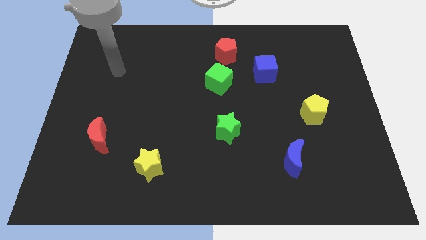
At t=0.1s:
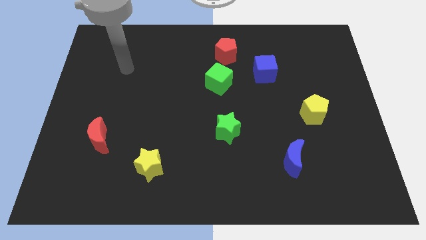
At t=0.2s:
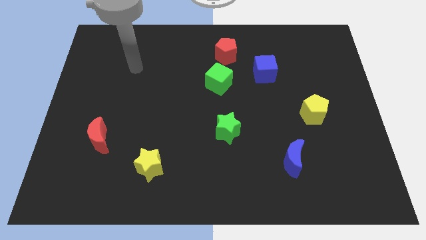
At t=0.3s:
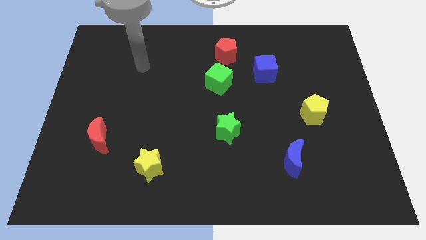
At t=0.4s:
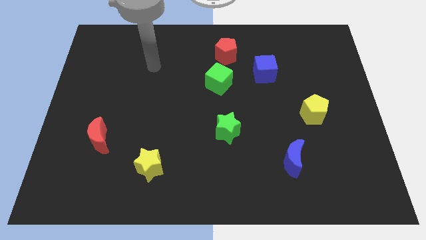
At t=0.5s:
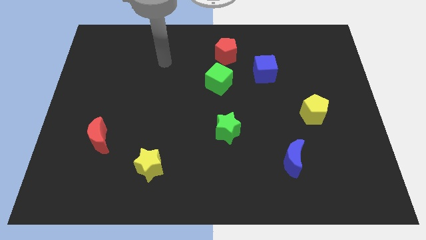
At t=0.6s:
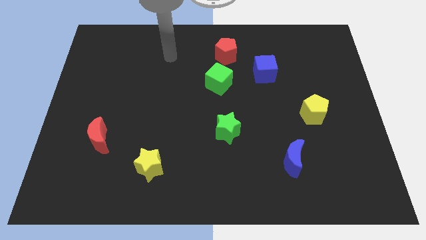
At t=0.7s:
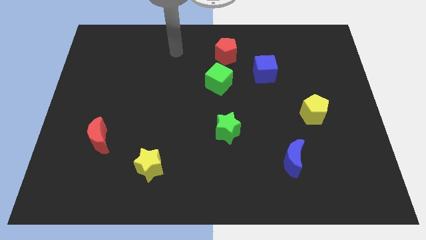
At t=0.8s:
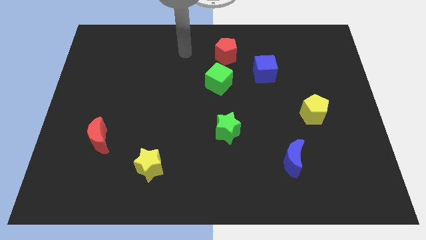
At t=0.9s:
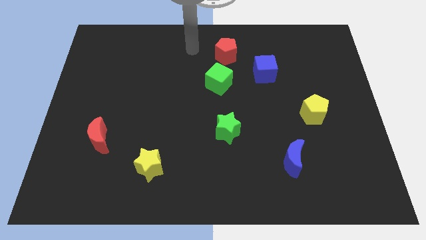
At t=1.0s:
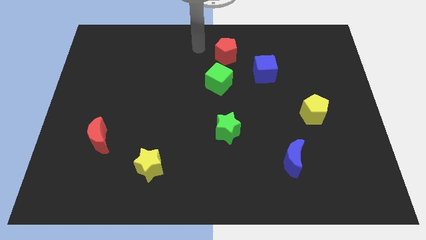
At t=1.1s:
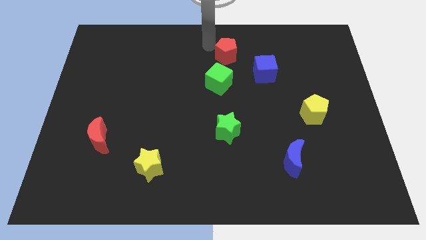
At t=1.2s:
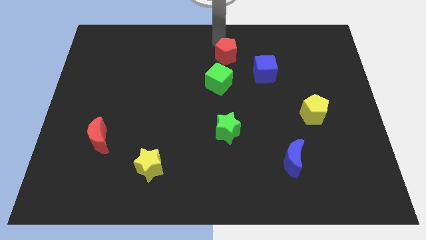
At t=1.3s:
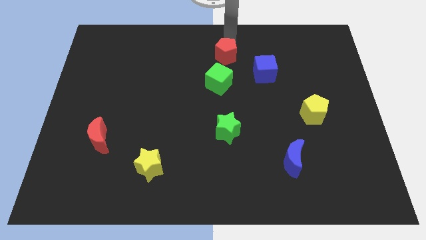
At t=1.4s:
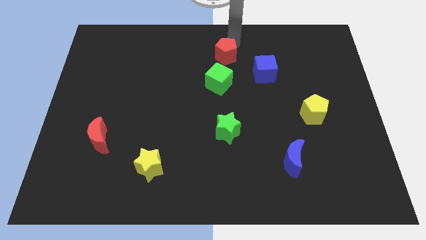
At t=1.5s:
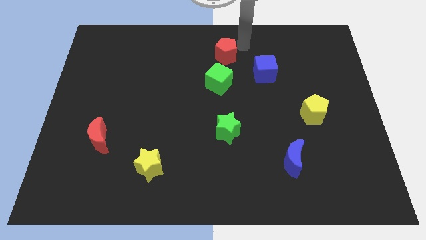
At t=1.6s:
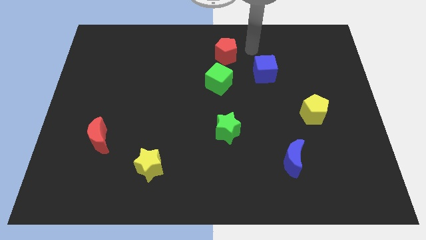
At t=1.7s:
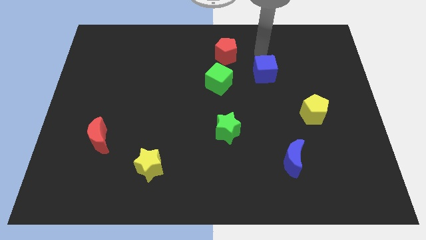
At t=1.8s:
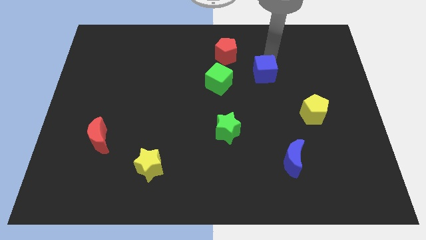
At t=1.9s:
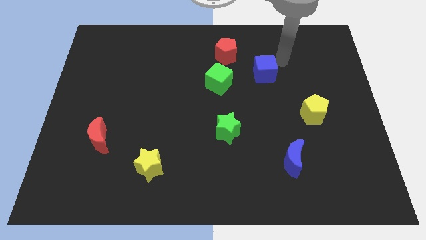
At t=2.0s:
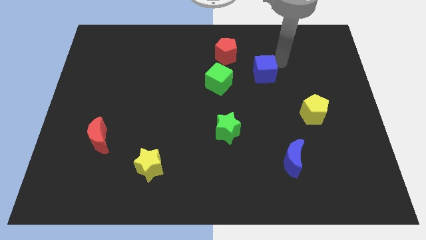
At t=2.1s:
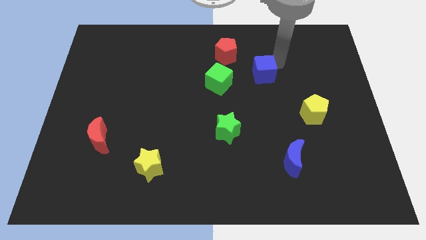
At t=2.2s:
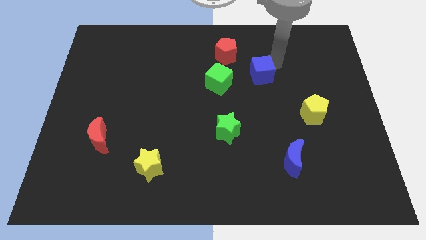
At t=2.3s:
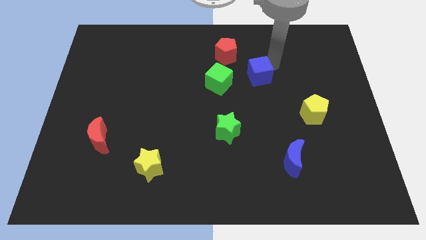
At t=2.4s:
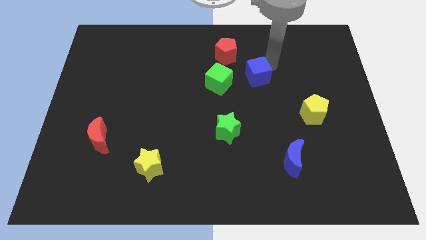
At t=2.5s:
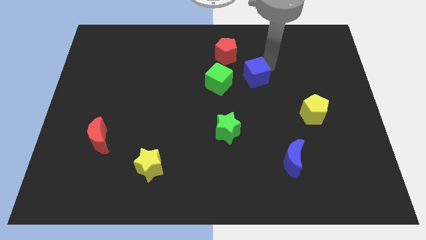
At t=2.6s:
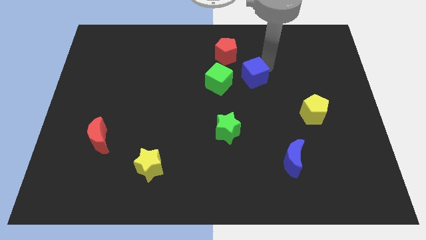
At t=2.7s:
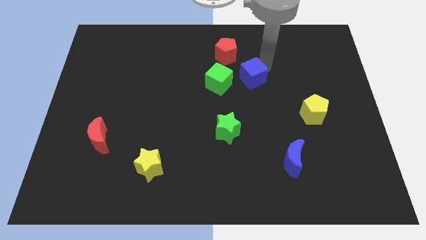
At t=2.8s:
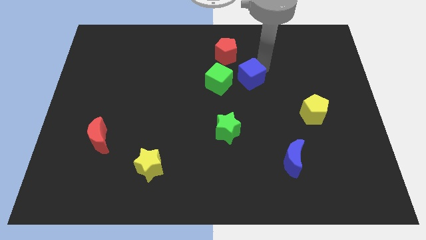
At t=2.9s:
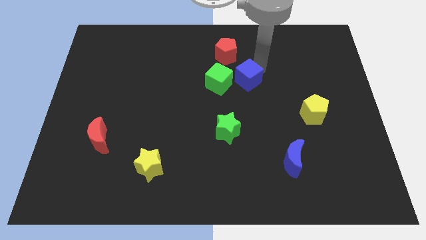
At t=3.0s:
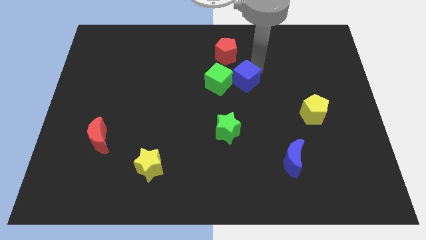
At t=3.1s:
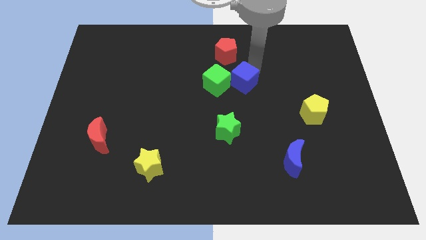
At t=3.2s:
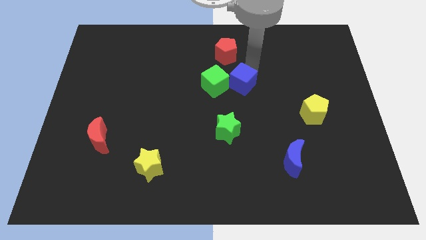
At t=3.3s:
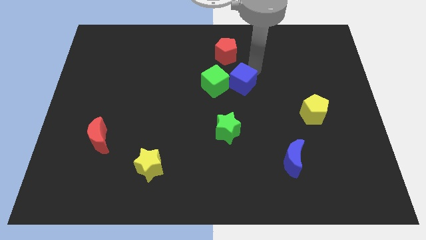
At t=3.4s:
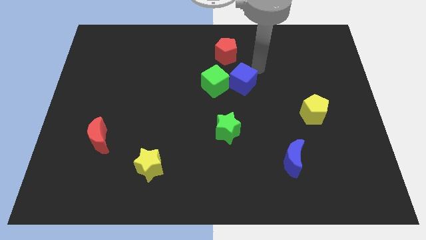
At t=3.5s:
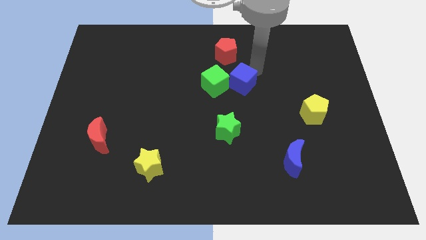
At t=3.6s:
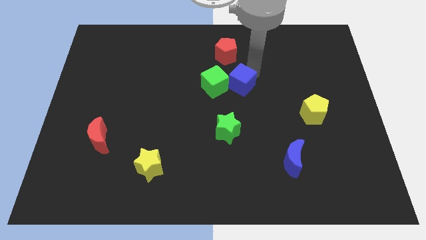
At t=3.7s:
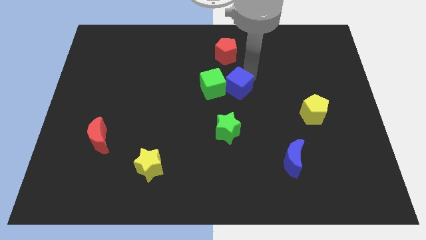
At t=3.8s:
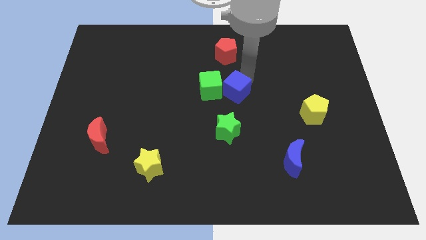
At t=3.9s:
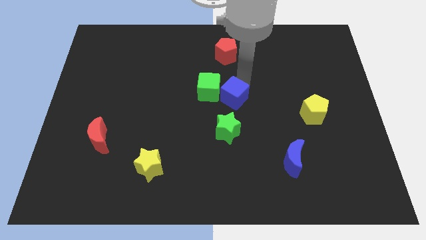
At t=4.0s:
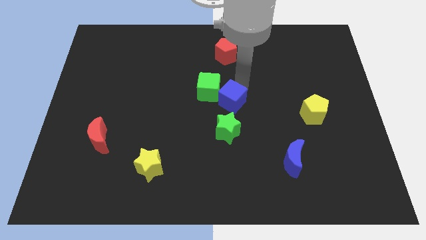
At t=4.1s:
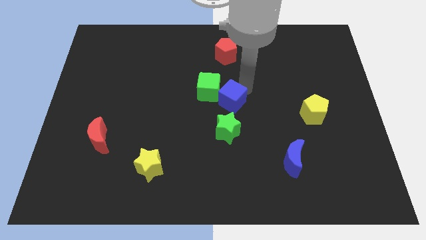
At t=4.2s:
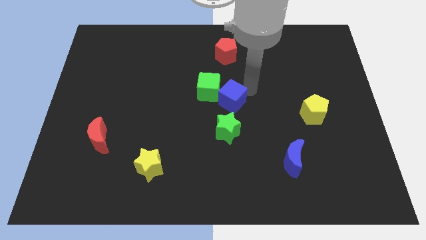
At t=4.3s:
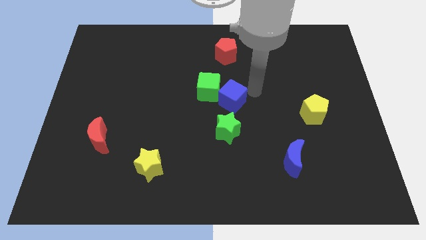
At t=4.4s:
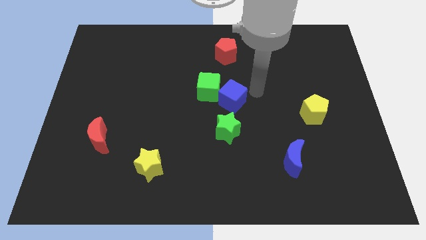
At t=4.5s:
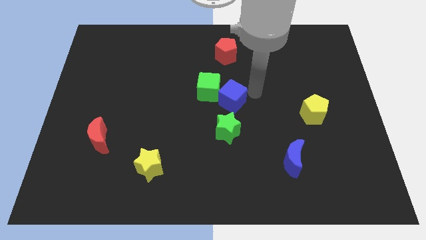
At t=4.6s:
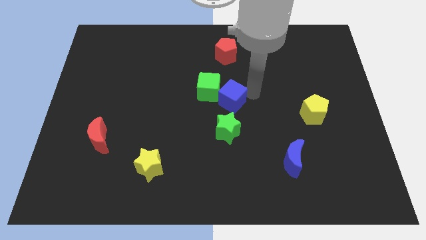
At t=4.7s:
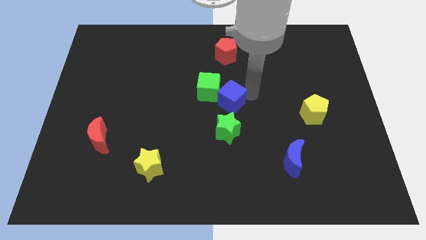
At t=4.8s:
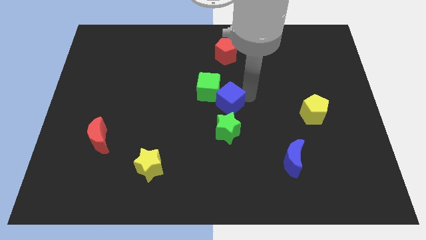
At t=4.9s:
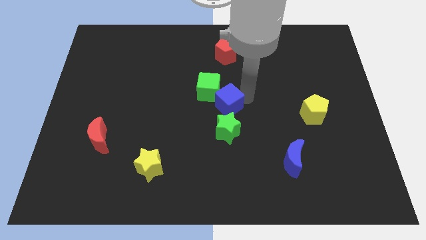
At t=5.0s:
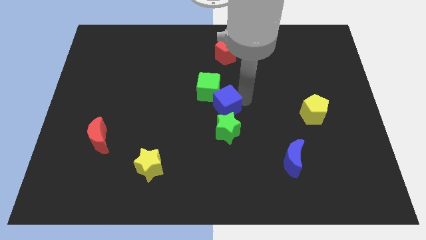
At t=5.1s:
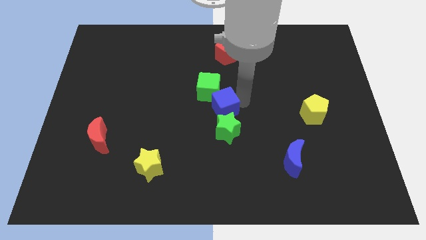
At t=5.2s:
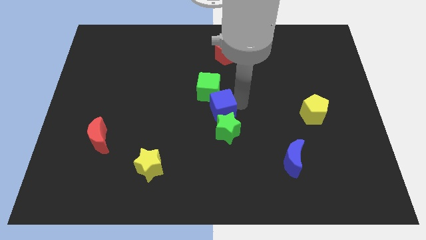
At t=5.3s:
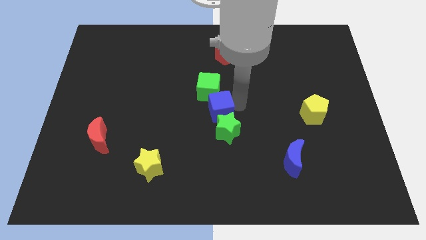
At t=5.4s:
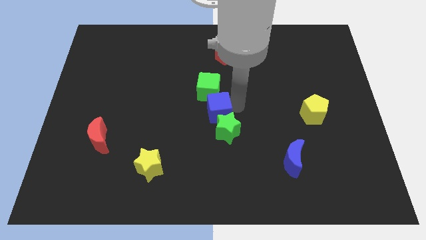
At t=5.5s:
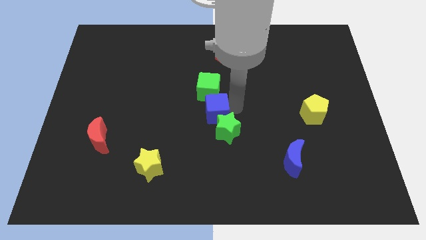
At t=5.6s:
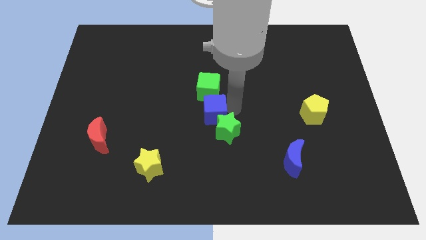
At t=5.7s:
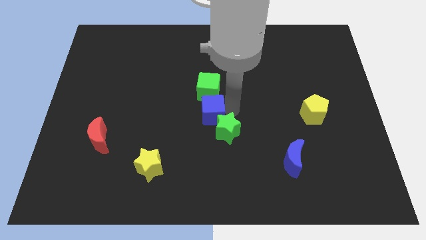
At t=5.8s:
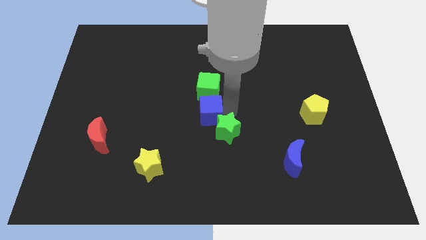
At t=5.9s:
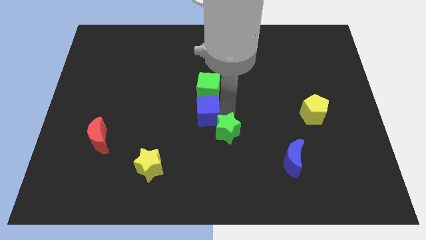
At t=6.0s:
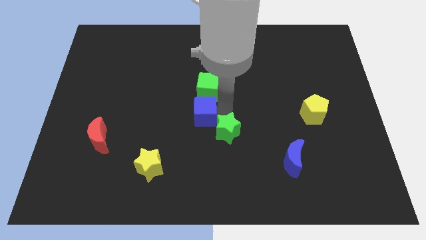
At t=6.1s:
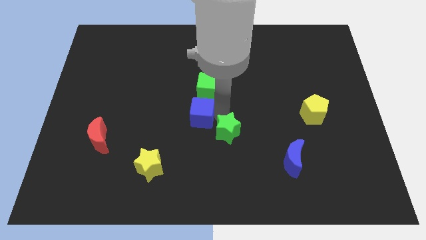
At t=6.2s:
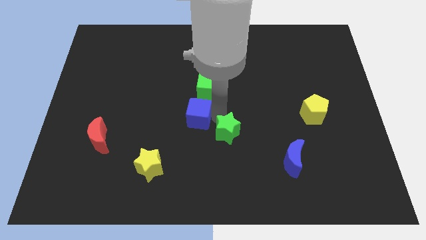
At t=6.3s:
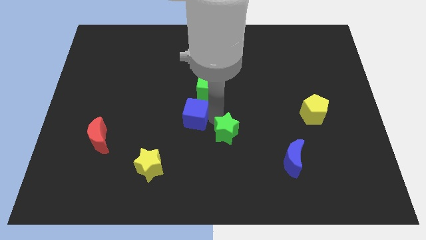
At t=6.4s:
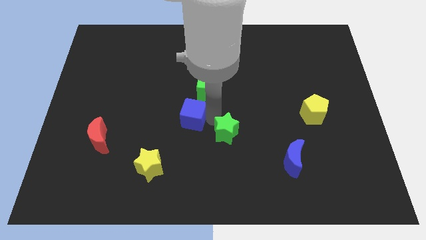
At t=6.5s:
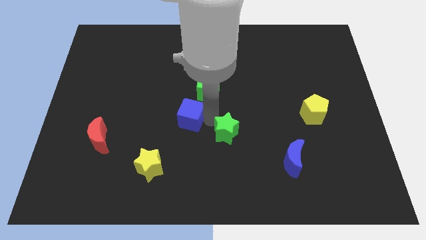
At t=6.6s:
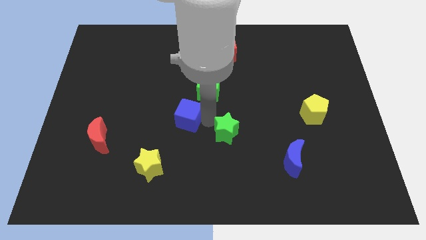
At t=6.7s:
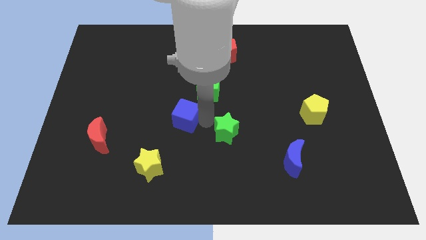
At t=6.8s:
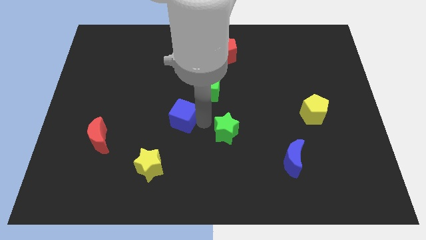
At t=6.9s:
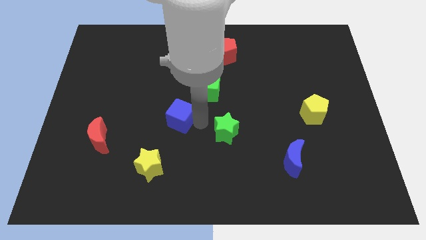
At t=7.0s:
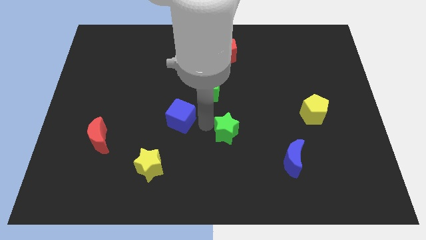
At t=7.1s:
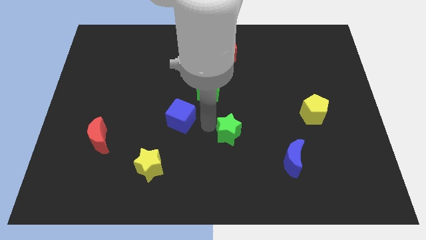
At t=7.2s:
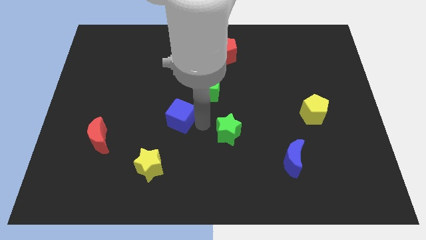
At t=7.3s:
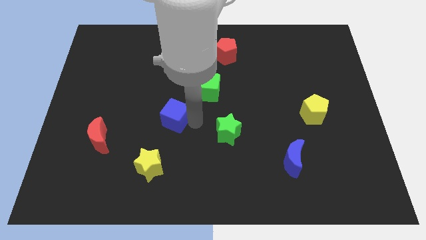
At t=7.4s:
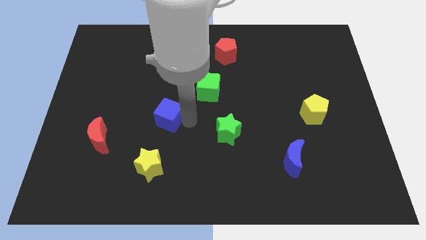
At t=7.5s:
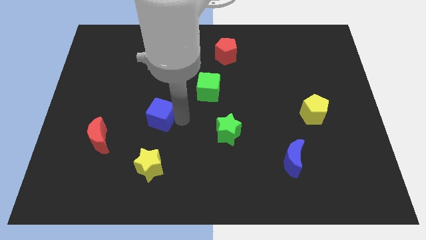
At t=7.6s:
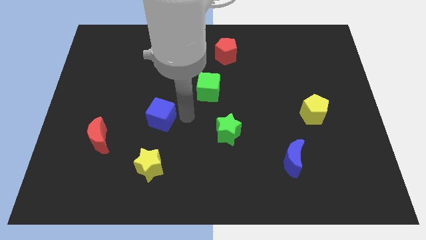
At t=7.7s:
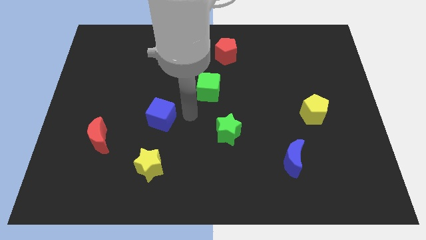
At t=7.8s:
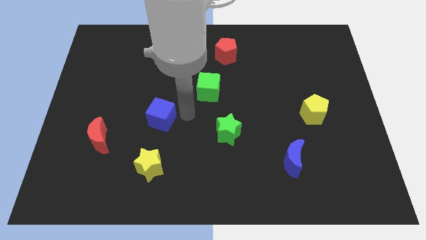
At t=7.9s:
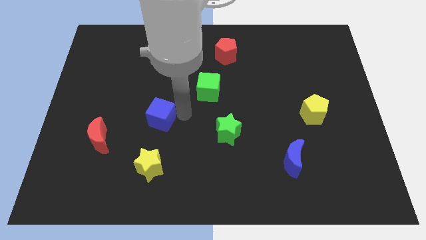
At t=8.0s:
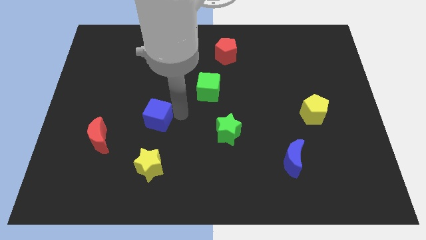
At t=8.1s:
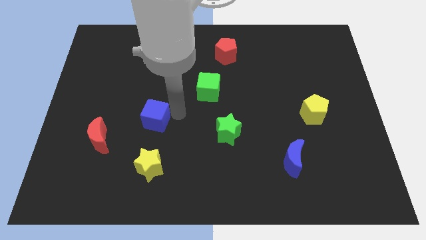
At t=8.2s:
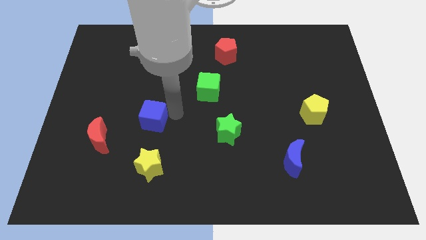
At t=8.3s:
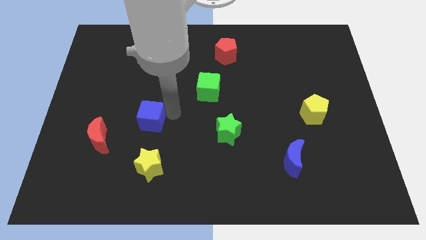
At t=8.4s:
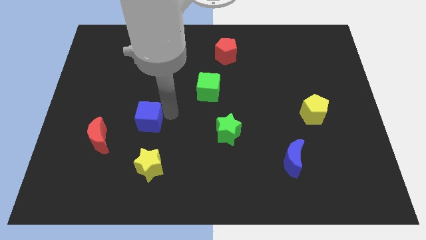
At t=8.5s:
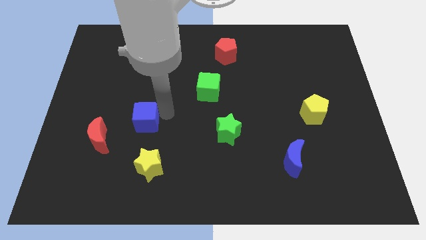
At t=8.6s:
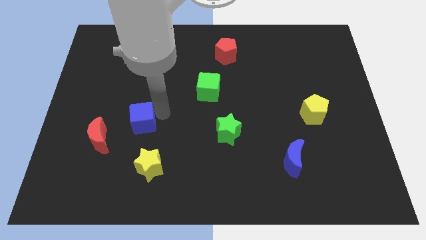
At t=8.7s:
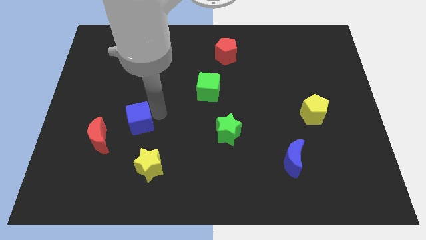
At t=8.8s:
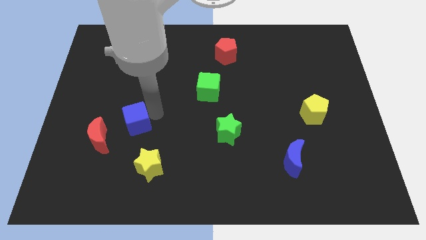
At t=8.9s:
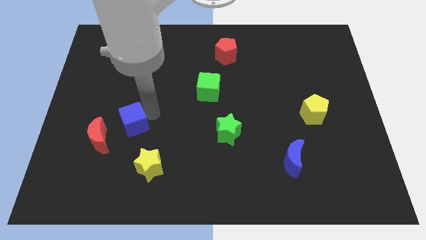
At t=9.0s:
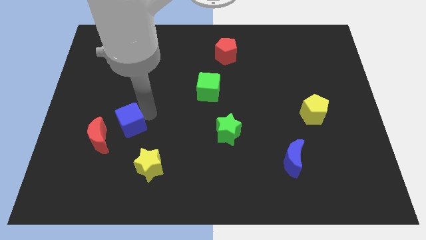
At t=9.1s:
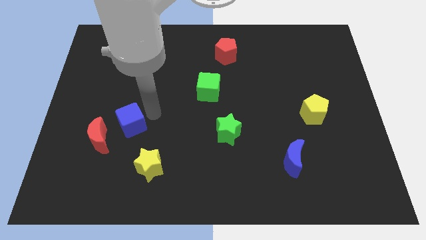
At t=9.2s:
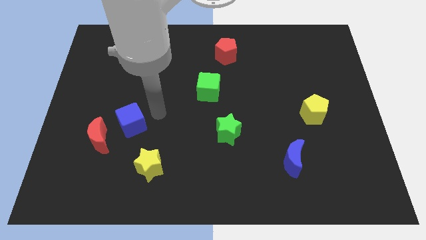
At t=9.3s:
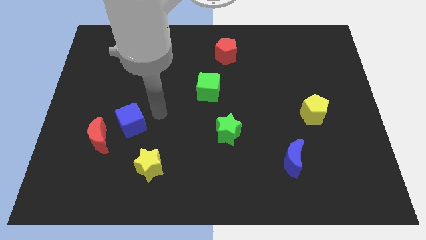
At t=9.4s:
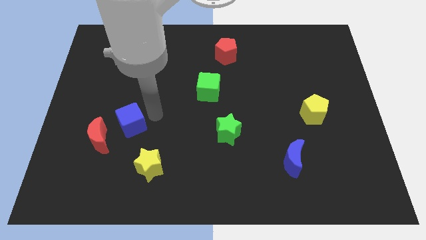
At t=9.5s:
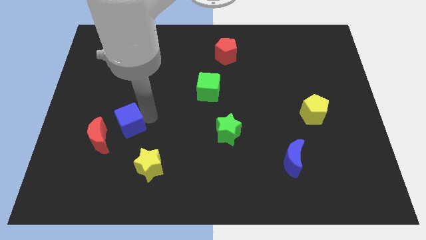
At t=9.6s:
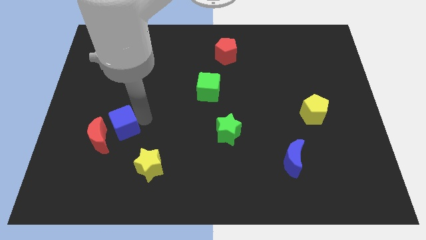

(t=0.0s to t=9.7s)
slide the blue cube to the red moon
